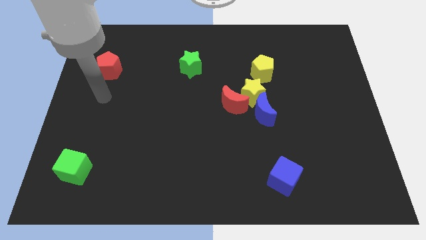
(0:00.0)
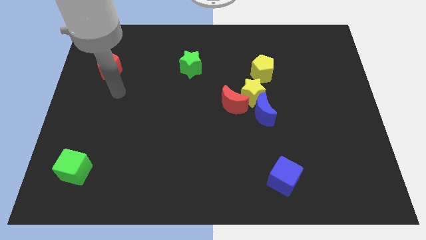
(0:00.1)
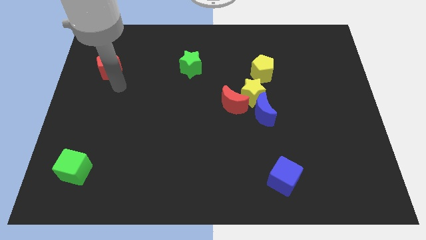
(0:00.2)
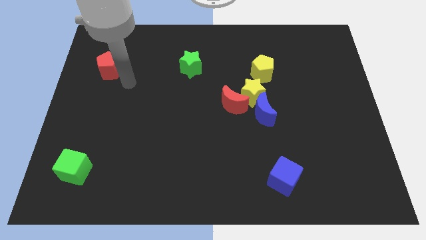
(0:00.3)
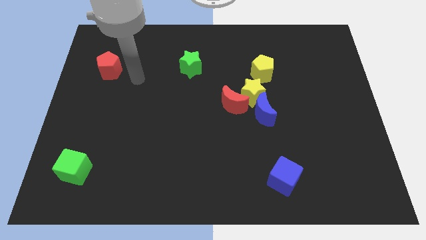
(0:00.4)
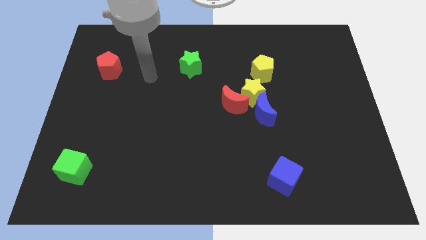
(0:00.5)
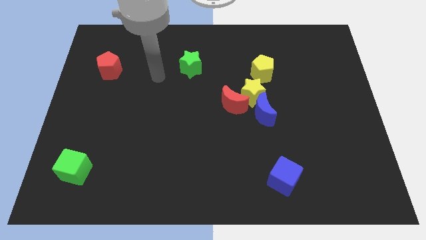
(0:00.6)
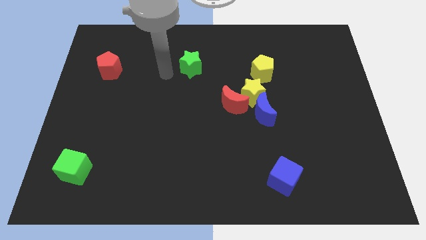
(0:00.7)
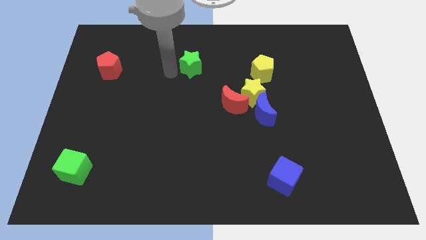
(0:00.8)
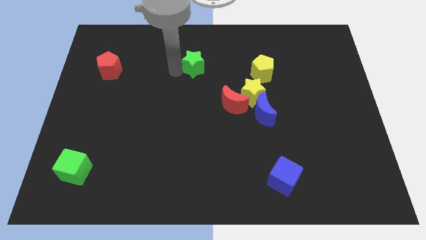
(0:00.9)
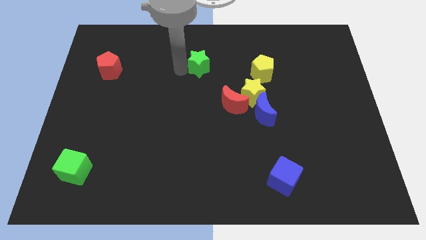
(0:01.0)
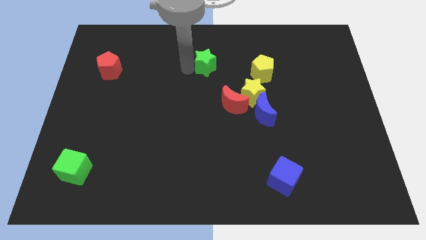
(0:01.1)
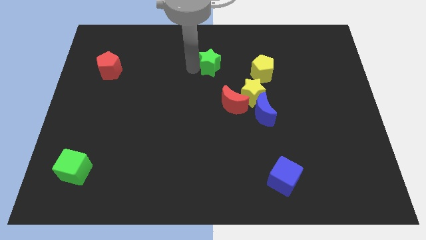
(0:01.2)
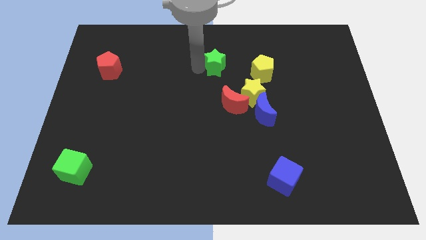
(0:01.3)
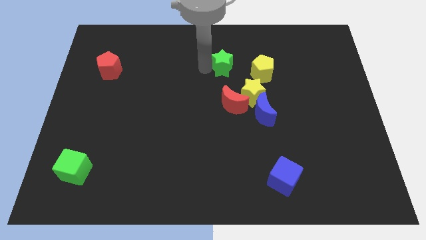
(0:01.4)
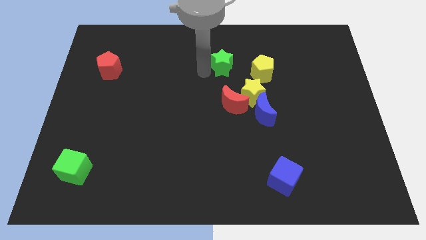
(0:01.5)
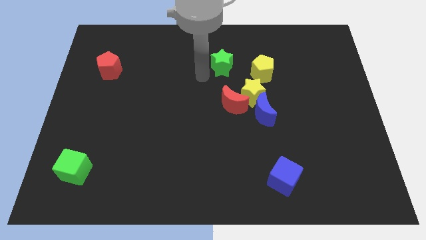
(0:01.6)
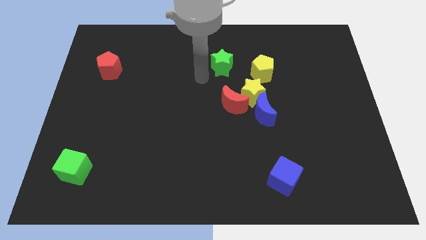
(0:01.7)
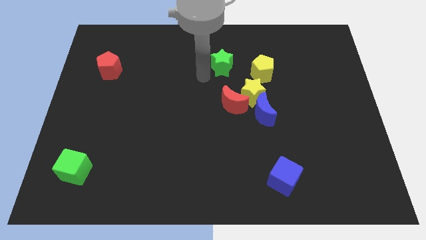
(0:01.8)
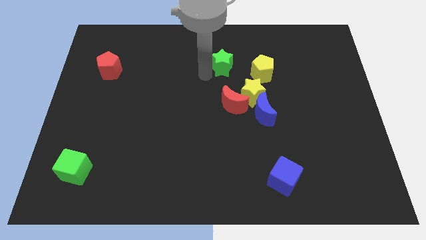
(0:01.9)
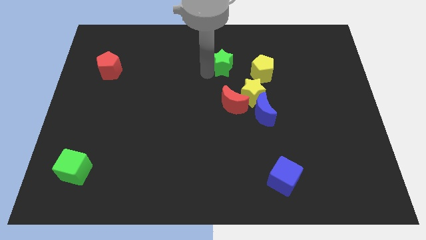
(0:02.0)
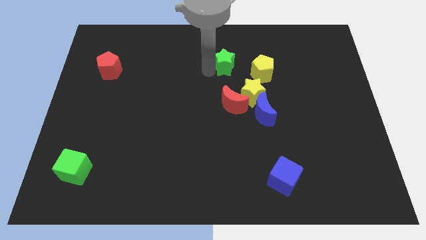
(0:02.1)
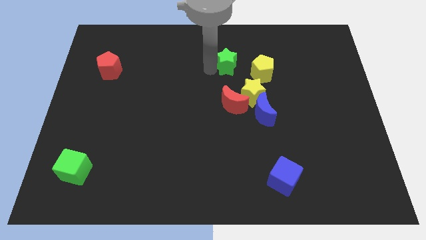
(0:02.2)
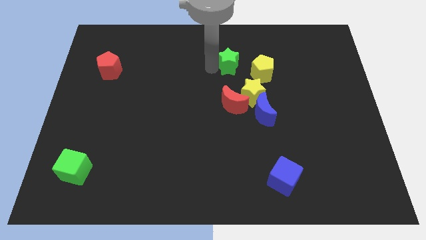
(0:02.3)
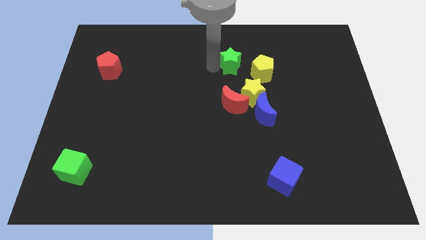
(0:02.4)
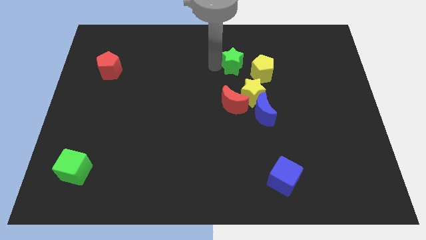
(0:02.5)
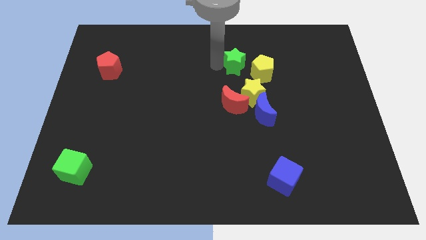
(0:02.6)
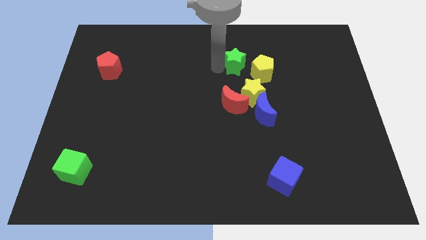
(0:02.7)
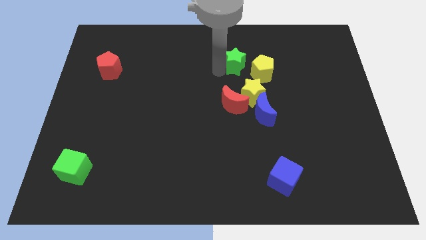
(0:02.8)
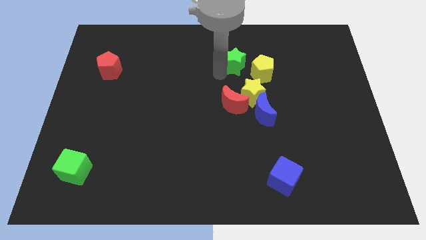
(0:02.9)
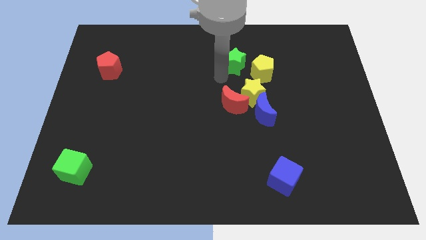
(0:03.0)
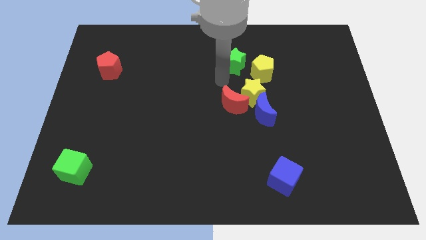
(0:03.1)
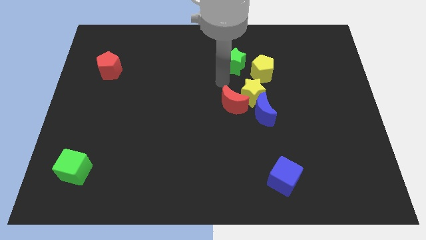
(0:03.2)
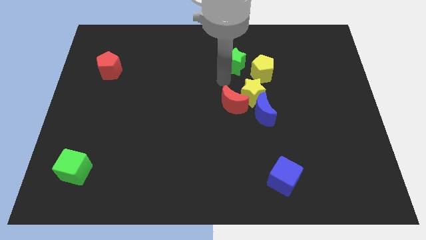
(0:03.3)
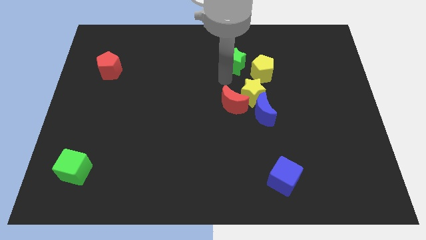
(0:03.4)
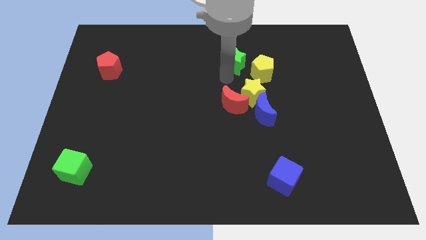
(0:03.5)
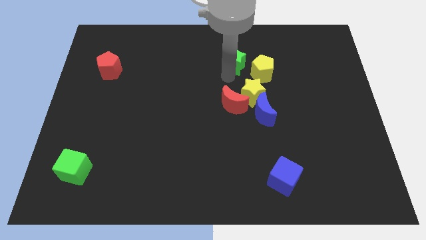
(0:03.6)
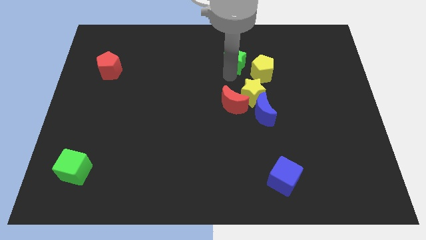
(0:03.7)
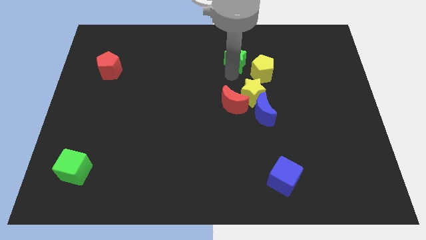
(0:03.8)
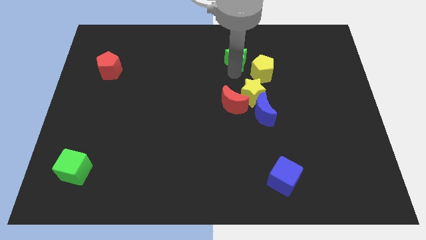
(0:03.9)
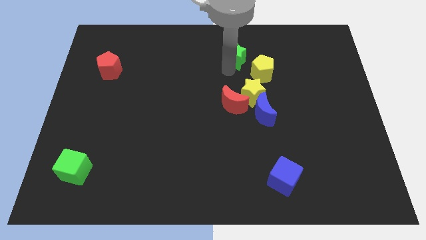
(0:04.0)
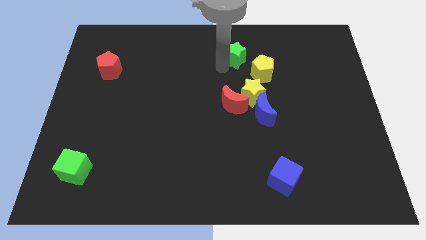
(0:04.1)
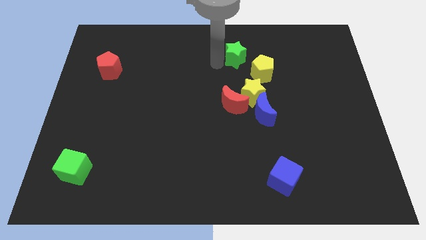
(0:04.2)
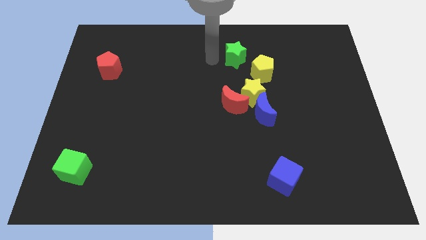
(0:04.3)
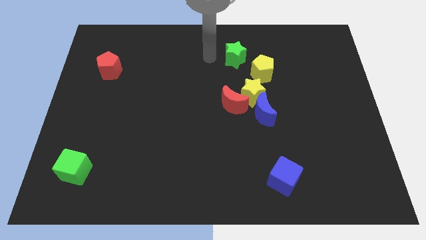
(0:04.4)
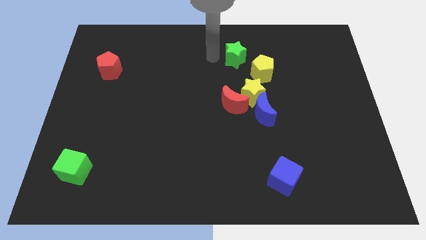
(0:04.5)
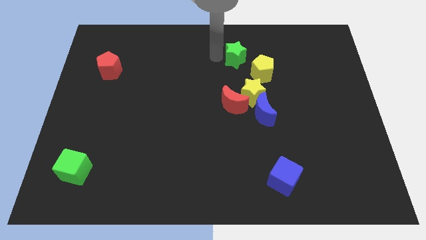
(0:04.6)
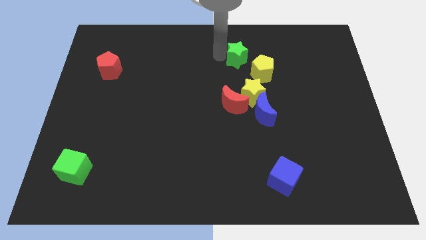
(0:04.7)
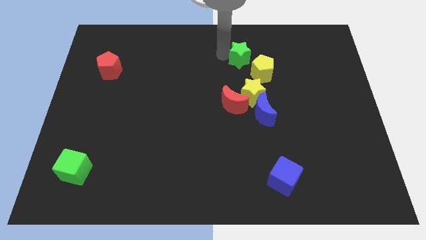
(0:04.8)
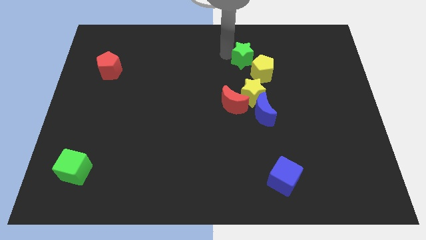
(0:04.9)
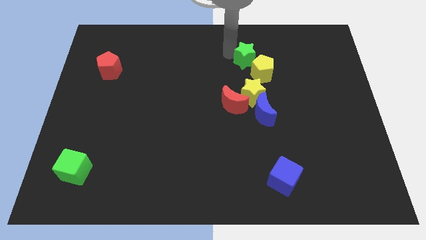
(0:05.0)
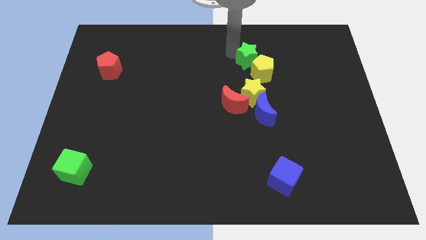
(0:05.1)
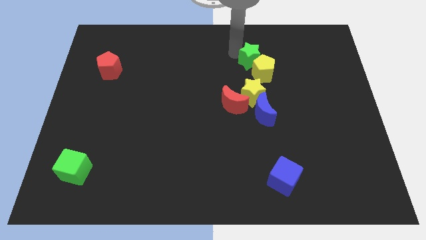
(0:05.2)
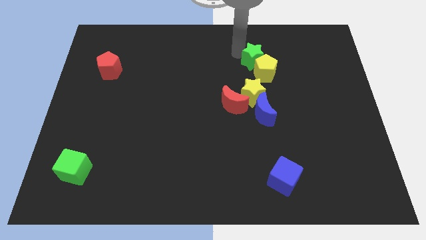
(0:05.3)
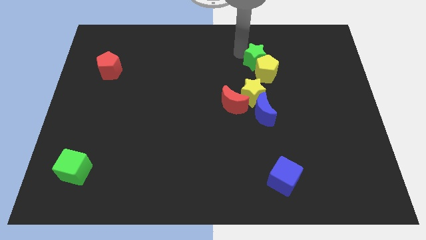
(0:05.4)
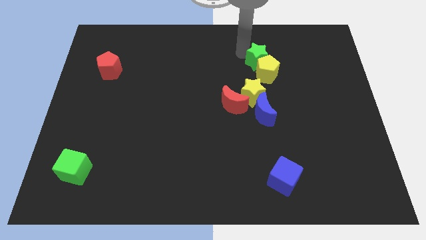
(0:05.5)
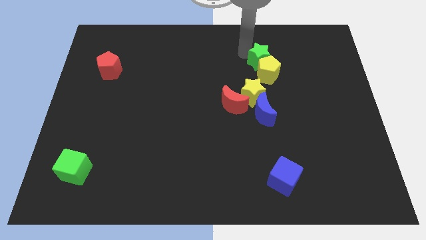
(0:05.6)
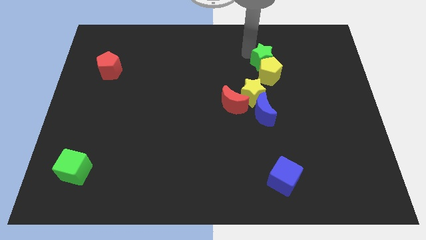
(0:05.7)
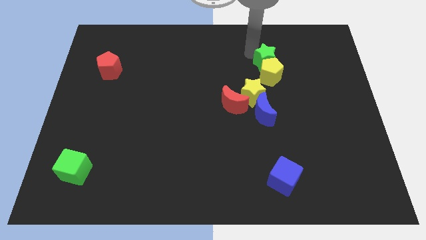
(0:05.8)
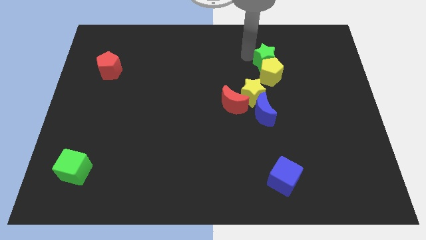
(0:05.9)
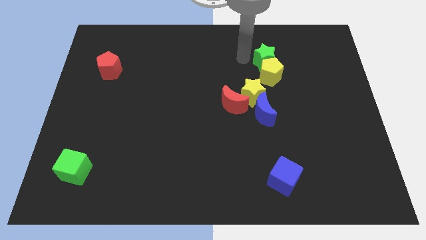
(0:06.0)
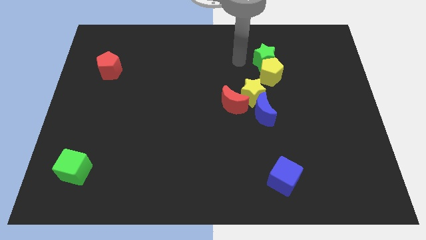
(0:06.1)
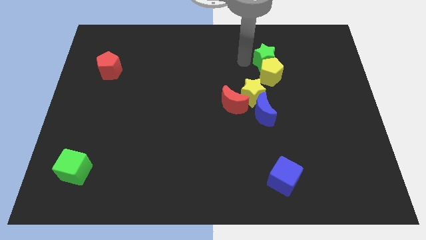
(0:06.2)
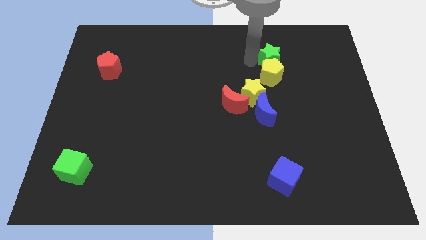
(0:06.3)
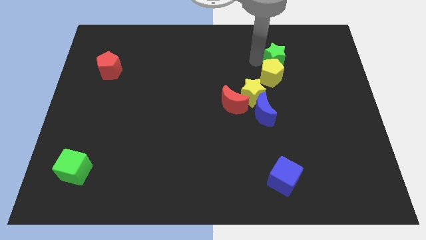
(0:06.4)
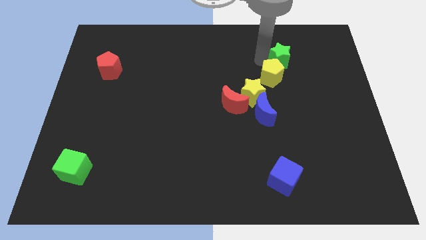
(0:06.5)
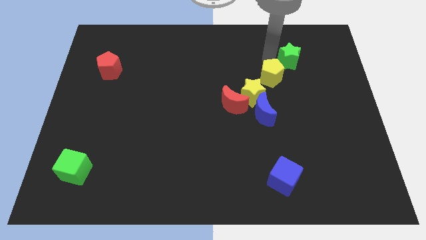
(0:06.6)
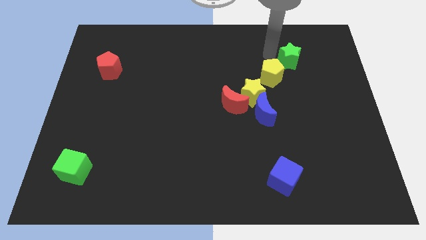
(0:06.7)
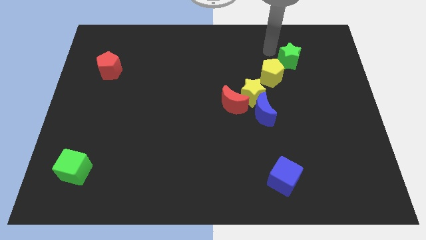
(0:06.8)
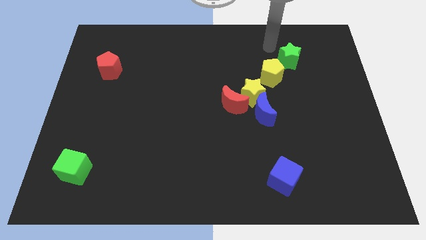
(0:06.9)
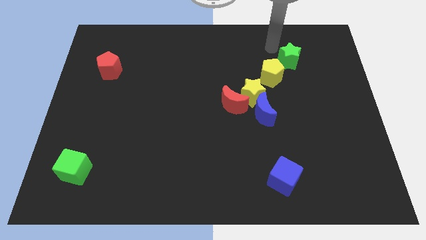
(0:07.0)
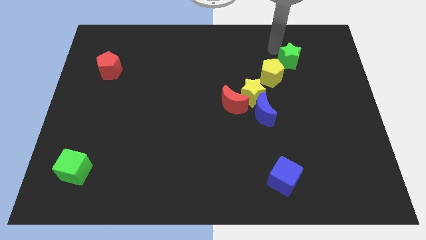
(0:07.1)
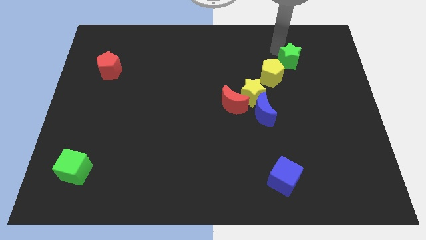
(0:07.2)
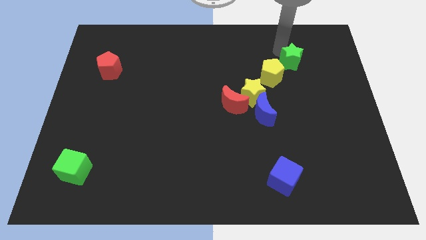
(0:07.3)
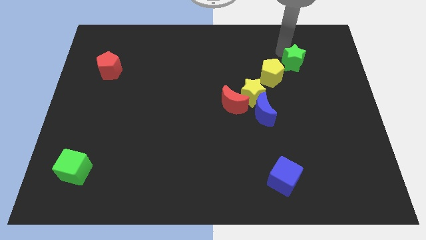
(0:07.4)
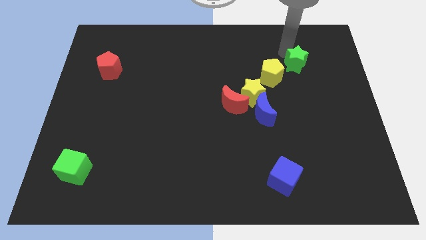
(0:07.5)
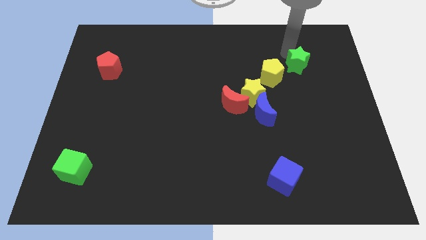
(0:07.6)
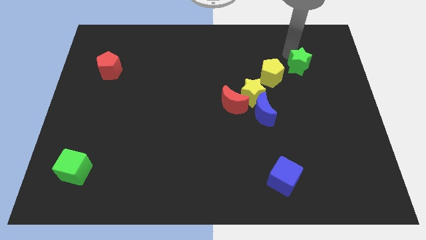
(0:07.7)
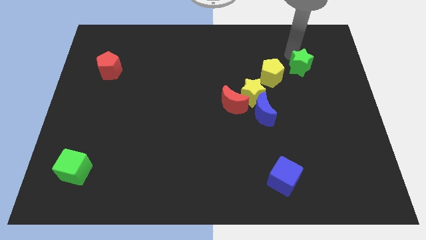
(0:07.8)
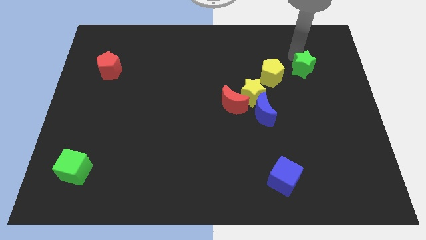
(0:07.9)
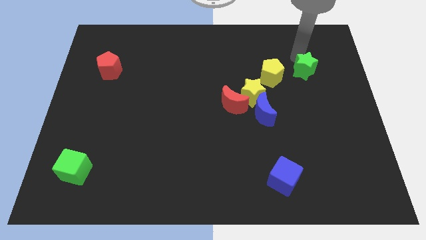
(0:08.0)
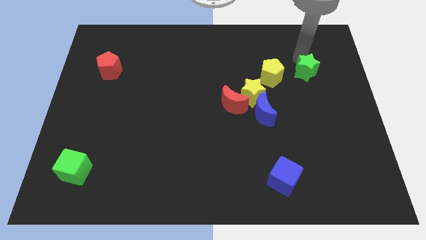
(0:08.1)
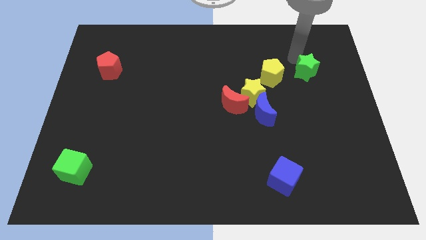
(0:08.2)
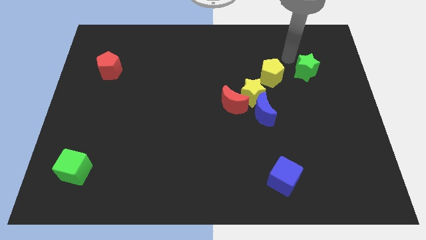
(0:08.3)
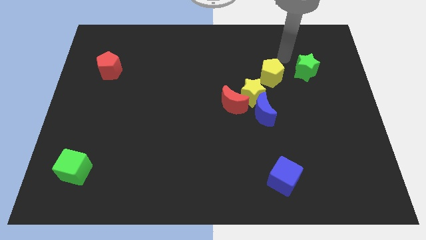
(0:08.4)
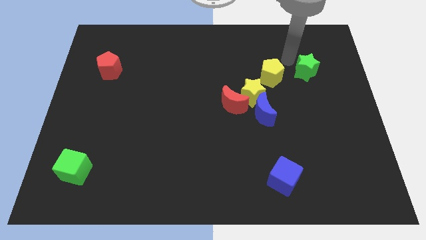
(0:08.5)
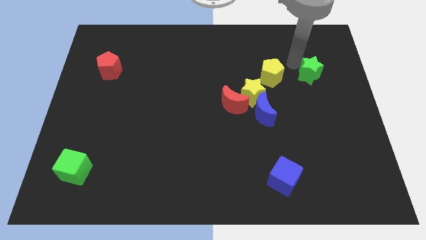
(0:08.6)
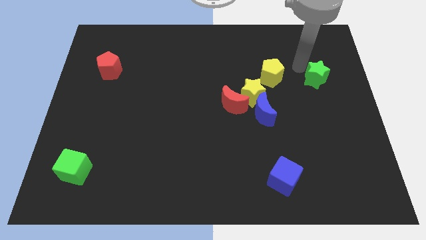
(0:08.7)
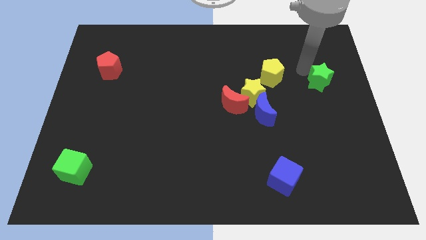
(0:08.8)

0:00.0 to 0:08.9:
put the green star to the center right
